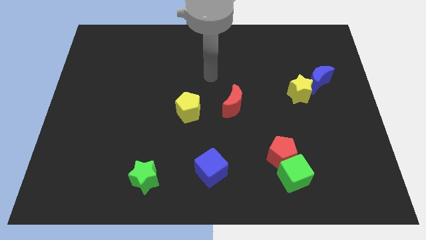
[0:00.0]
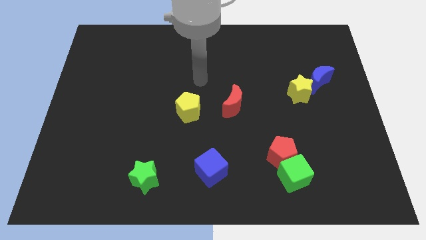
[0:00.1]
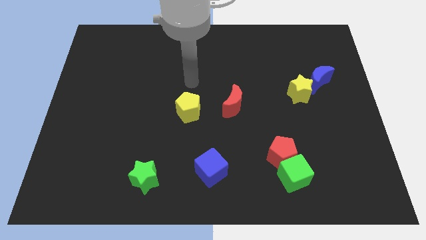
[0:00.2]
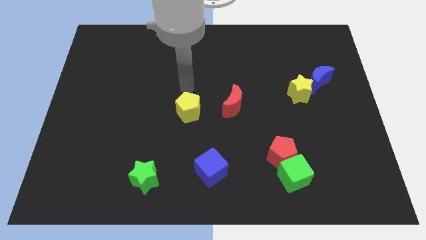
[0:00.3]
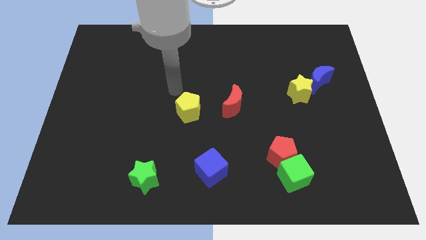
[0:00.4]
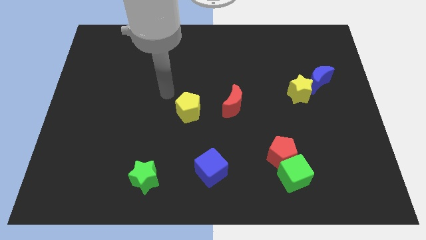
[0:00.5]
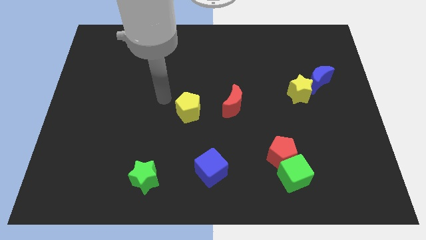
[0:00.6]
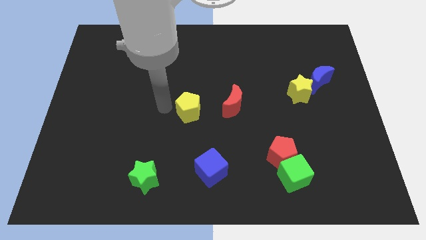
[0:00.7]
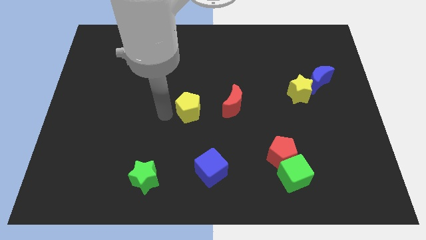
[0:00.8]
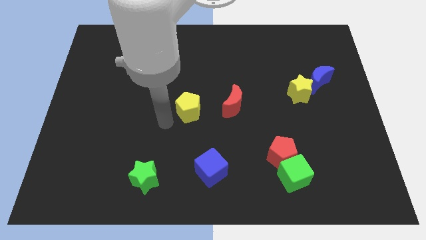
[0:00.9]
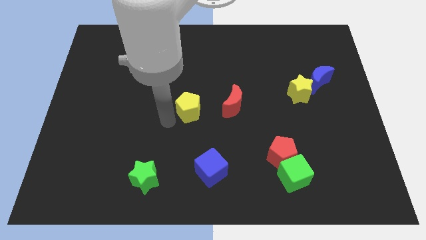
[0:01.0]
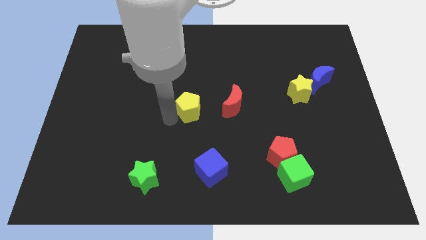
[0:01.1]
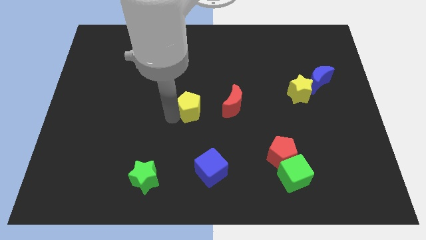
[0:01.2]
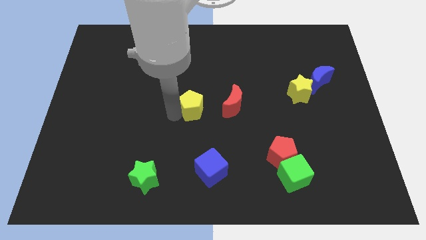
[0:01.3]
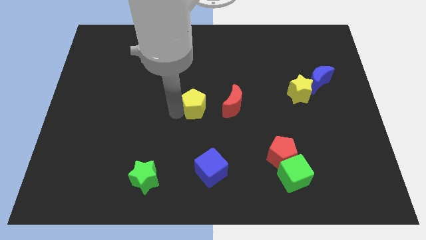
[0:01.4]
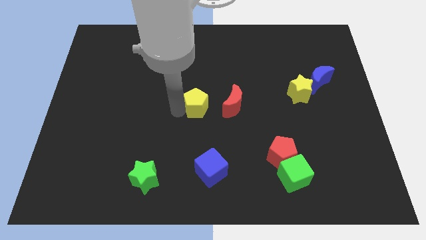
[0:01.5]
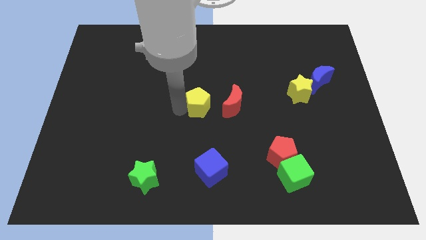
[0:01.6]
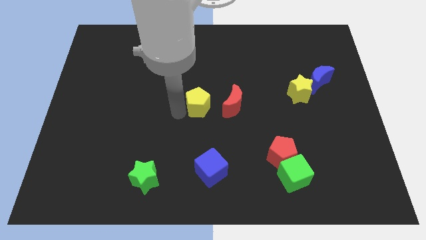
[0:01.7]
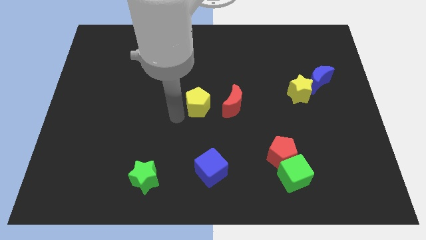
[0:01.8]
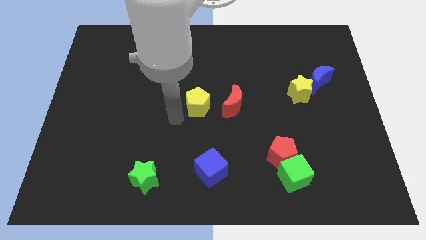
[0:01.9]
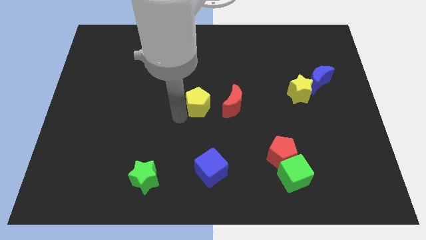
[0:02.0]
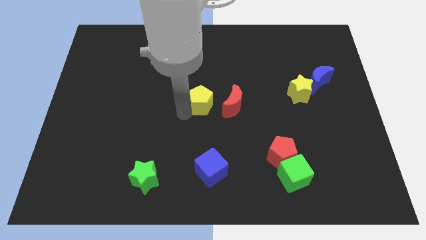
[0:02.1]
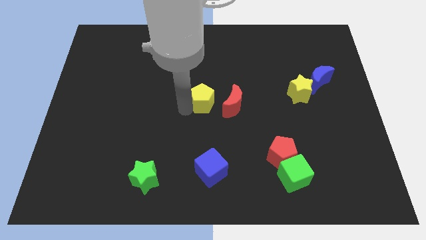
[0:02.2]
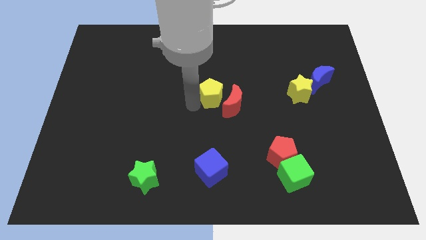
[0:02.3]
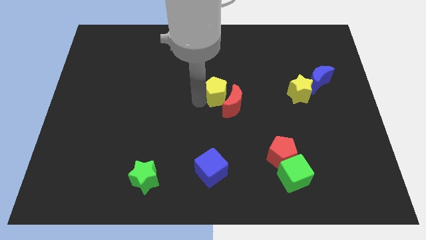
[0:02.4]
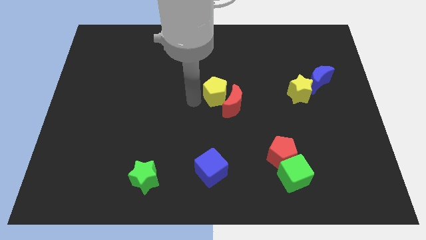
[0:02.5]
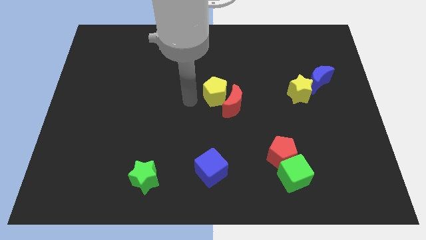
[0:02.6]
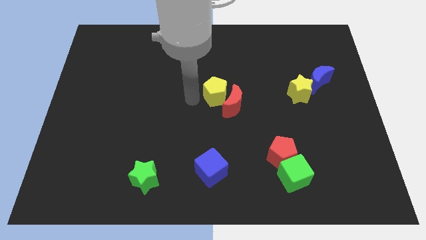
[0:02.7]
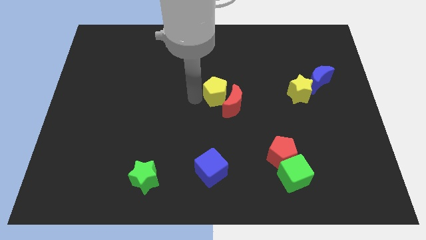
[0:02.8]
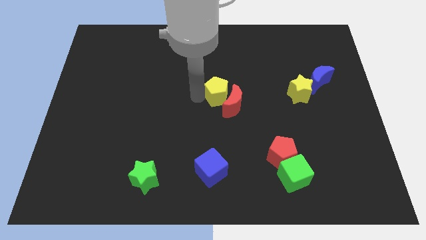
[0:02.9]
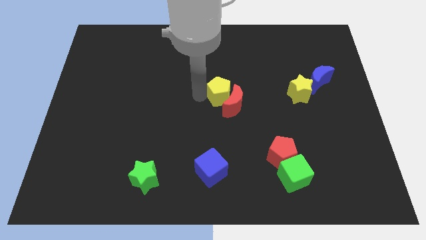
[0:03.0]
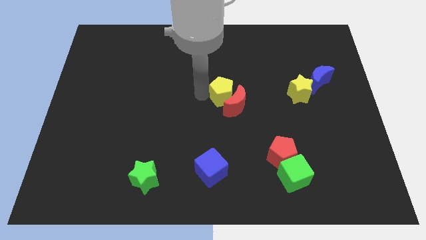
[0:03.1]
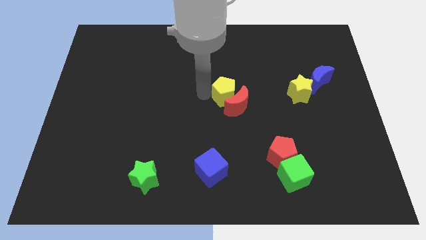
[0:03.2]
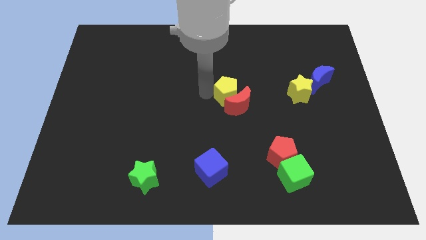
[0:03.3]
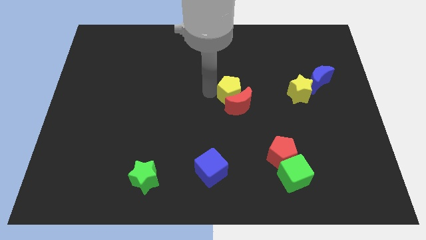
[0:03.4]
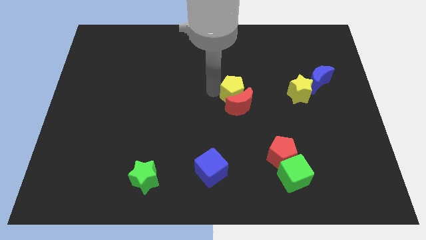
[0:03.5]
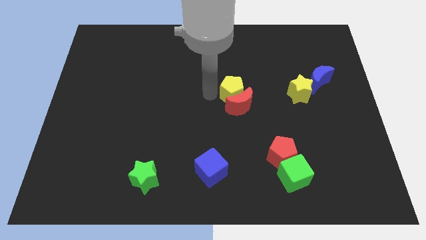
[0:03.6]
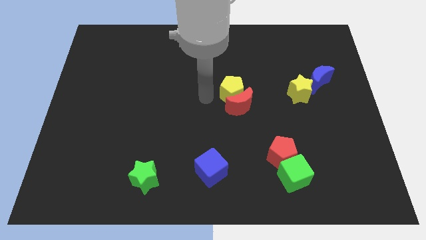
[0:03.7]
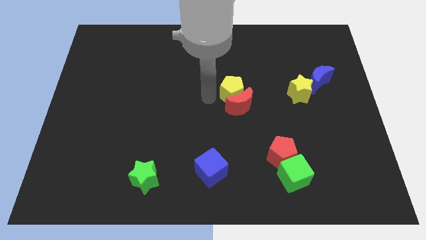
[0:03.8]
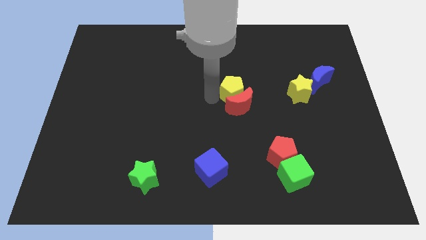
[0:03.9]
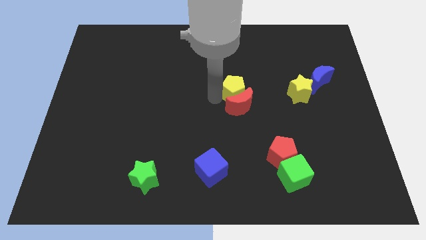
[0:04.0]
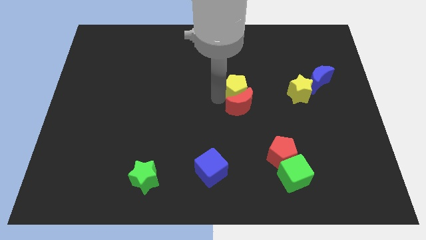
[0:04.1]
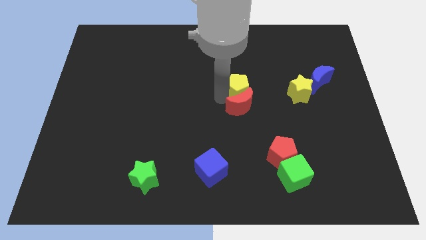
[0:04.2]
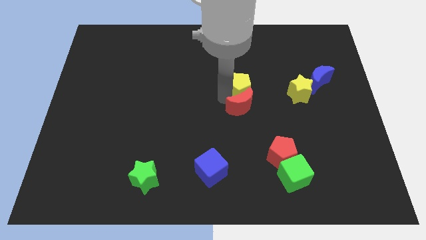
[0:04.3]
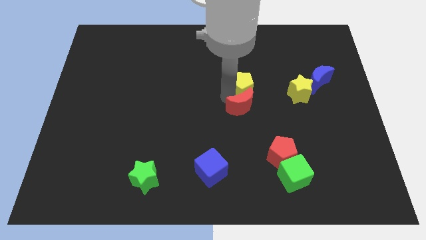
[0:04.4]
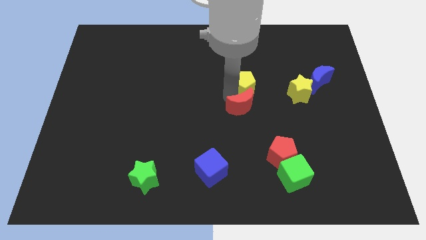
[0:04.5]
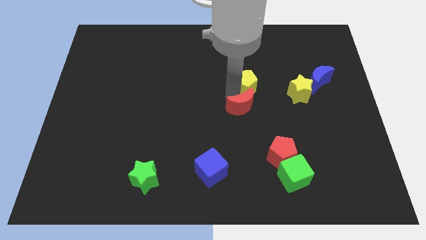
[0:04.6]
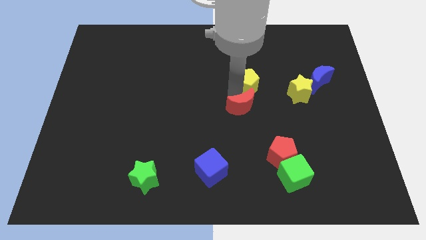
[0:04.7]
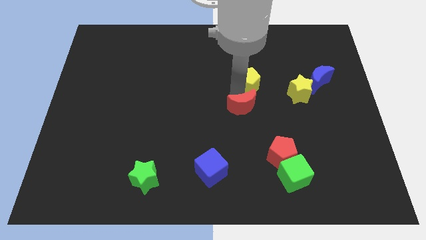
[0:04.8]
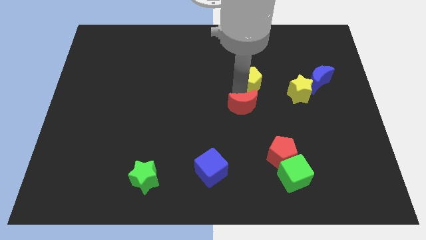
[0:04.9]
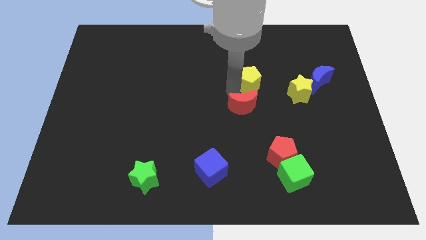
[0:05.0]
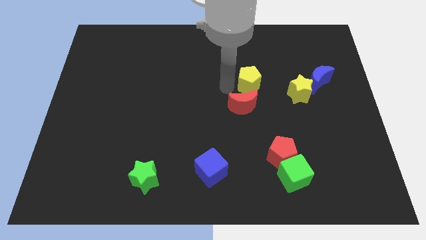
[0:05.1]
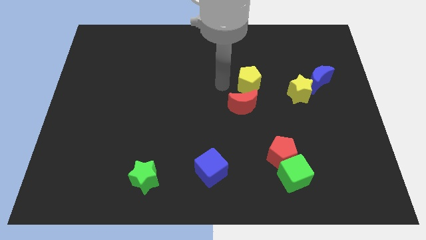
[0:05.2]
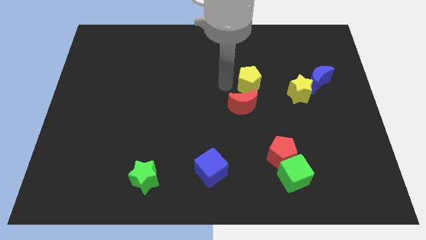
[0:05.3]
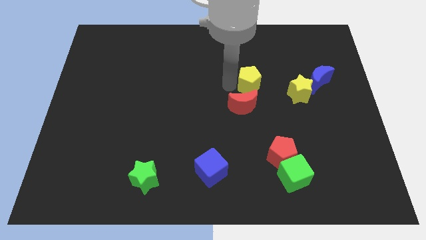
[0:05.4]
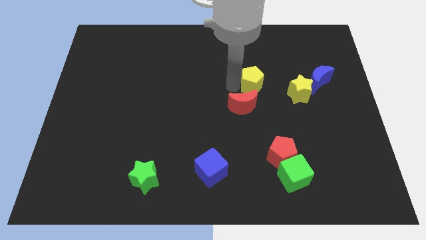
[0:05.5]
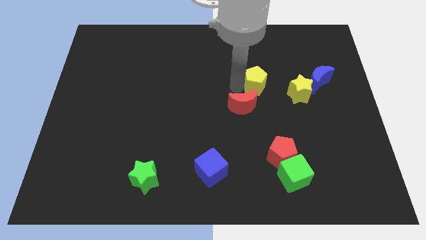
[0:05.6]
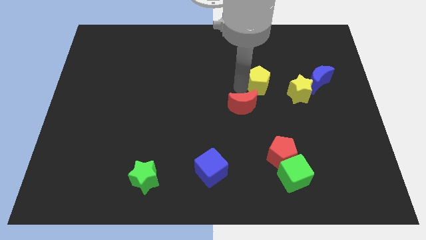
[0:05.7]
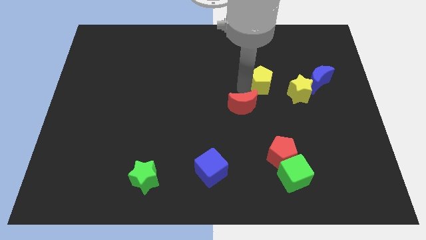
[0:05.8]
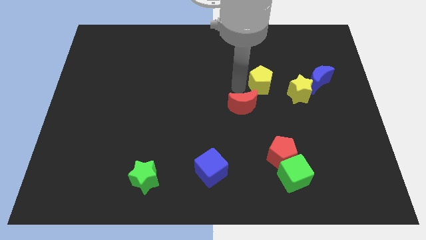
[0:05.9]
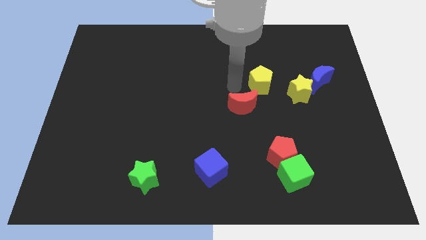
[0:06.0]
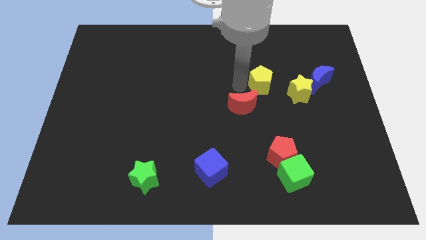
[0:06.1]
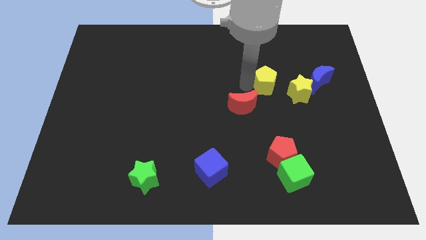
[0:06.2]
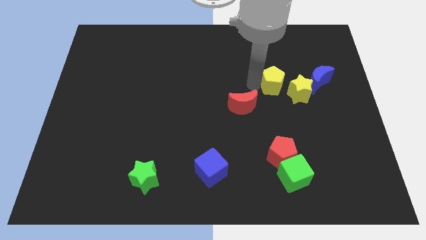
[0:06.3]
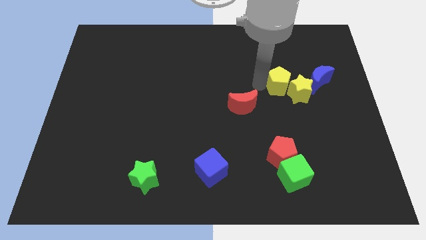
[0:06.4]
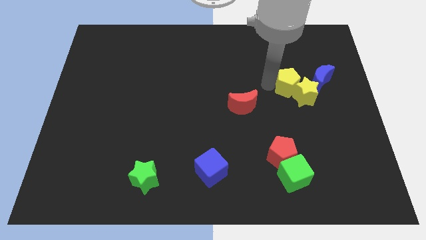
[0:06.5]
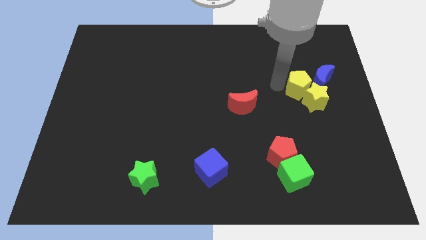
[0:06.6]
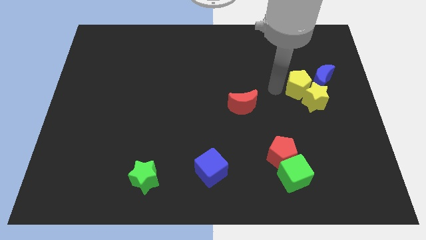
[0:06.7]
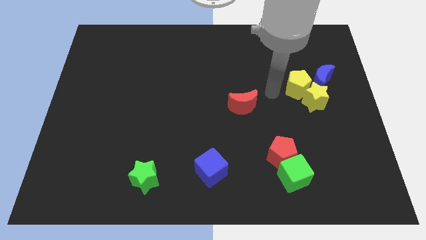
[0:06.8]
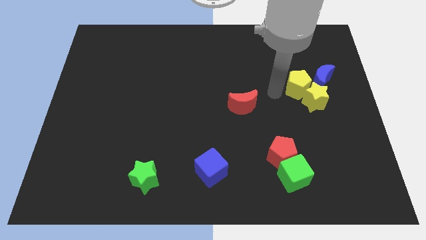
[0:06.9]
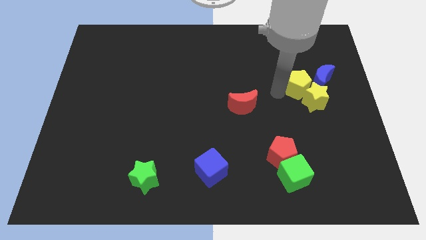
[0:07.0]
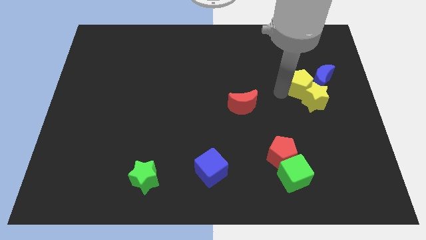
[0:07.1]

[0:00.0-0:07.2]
slide the yellow pentagon close to the blue moon
